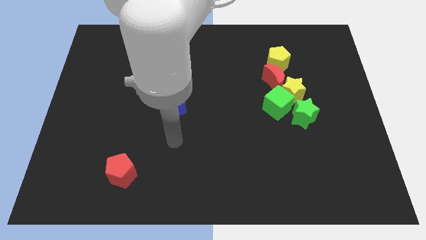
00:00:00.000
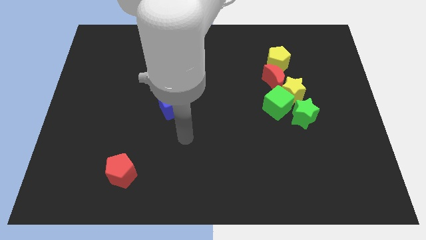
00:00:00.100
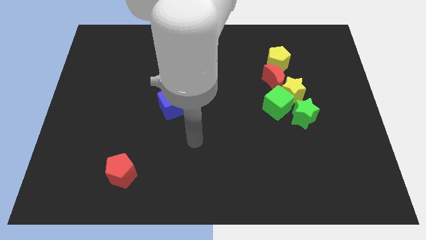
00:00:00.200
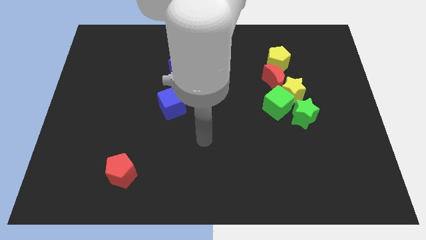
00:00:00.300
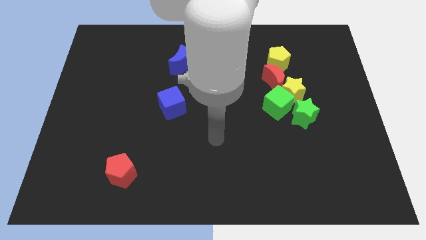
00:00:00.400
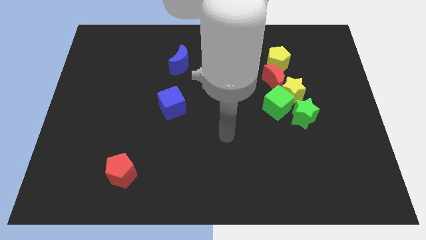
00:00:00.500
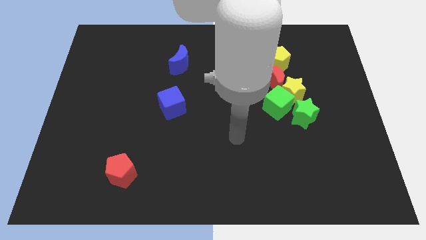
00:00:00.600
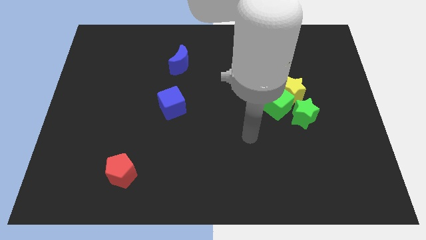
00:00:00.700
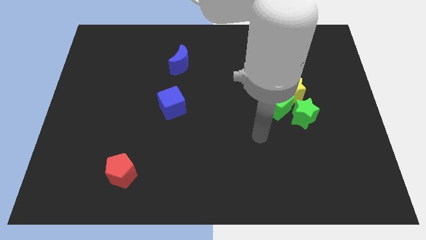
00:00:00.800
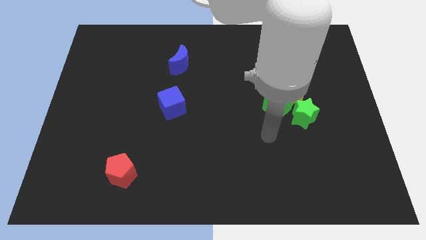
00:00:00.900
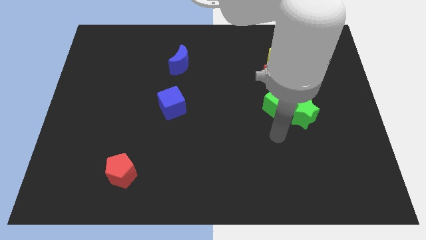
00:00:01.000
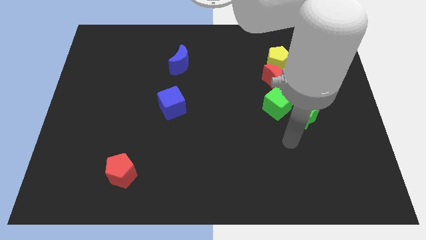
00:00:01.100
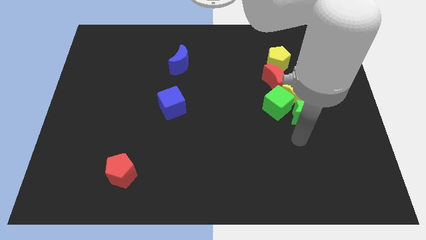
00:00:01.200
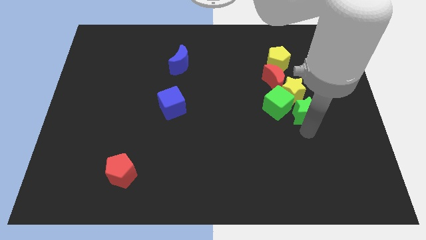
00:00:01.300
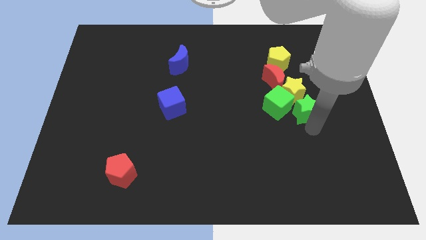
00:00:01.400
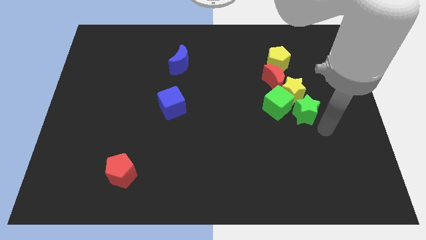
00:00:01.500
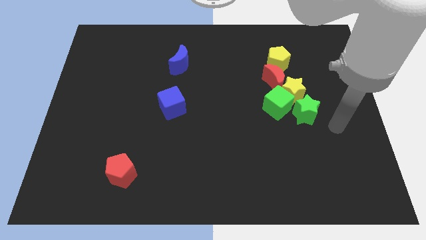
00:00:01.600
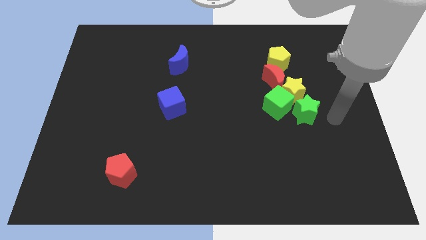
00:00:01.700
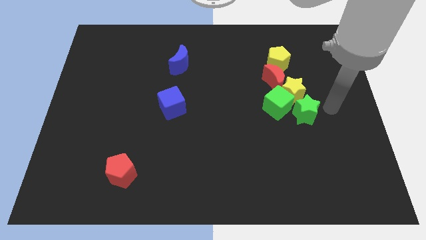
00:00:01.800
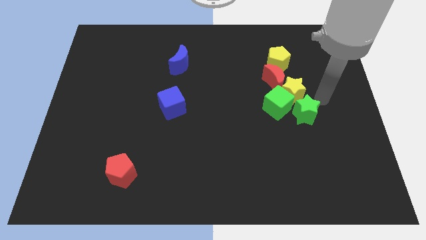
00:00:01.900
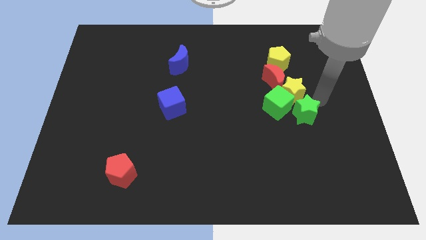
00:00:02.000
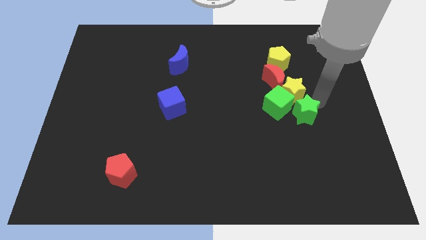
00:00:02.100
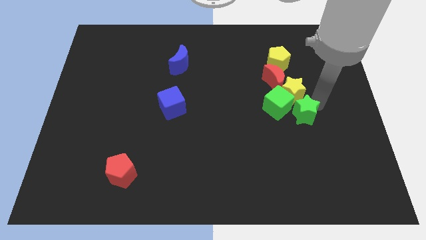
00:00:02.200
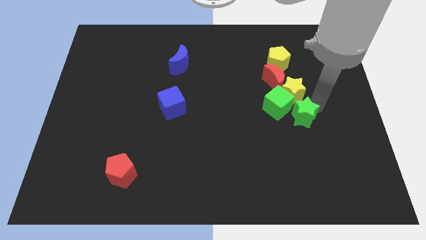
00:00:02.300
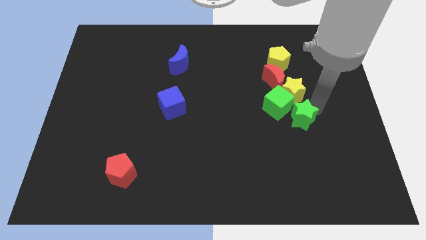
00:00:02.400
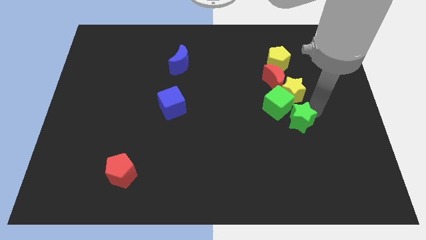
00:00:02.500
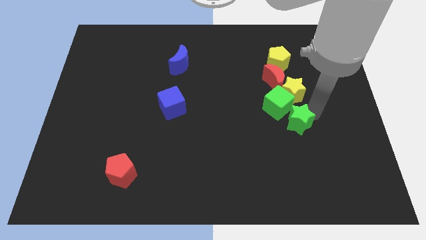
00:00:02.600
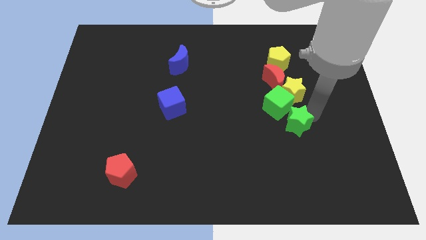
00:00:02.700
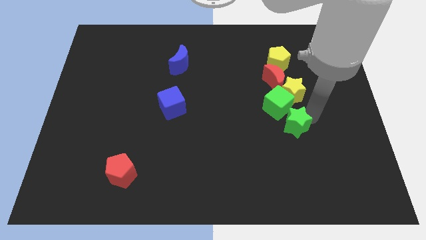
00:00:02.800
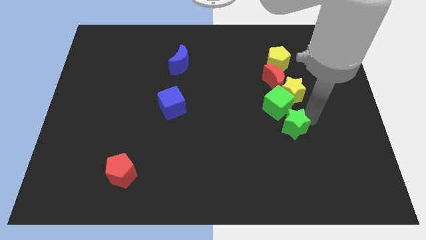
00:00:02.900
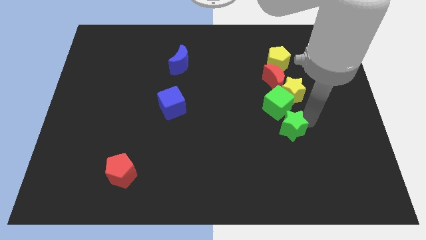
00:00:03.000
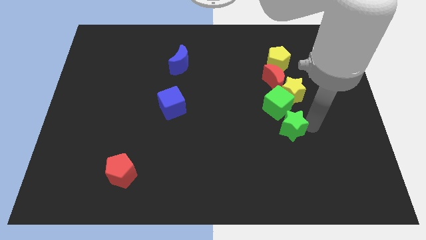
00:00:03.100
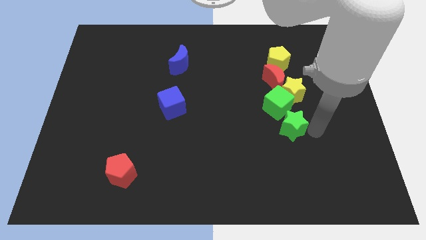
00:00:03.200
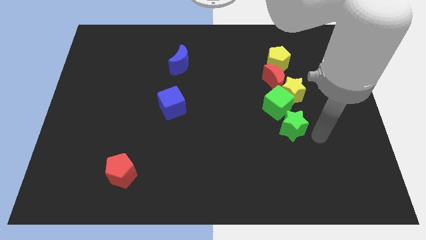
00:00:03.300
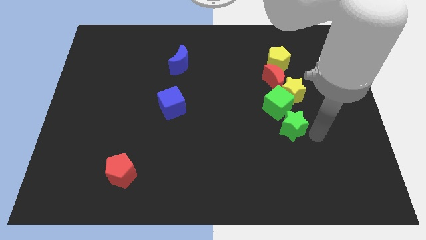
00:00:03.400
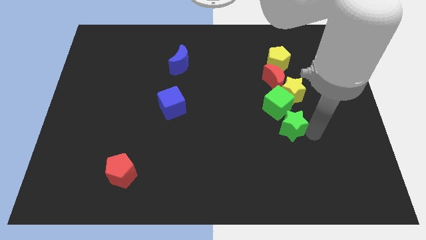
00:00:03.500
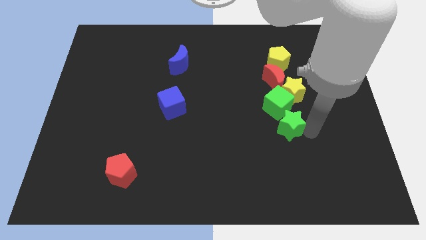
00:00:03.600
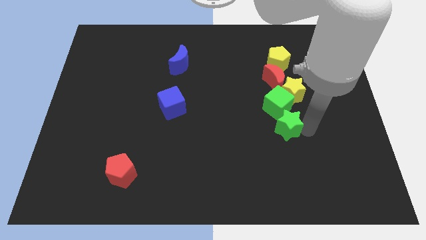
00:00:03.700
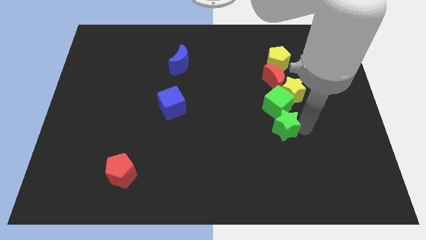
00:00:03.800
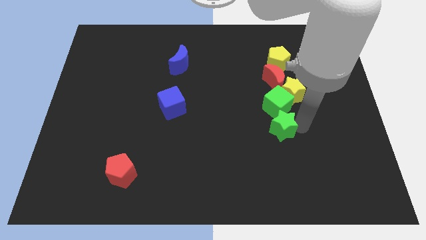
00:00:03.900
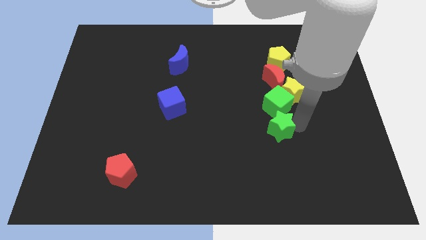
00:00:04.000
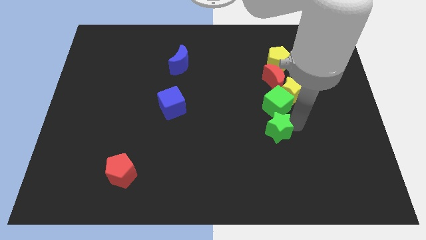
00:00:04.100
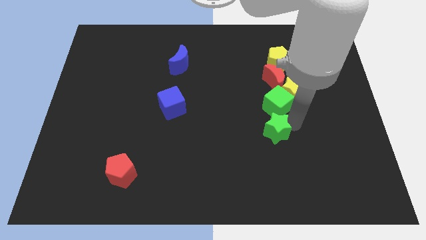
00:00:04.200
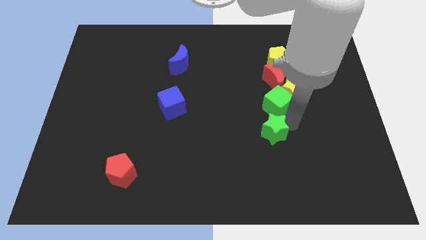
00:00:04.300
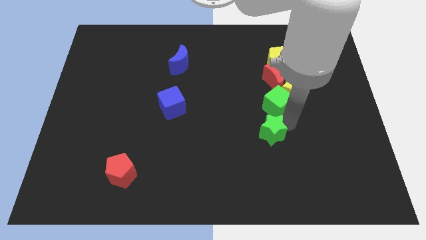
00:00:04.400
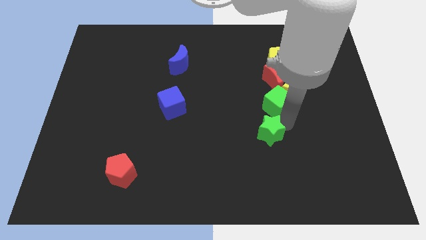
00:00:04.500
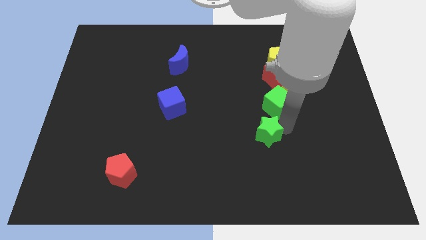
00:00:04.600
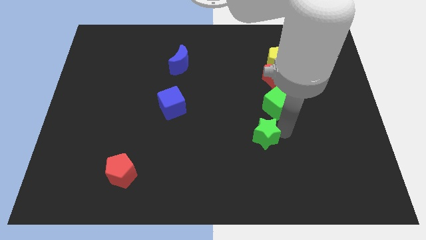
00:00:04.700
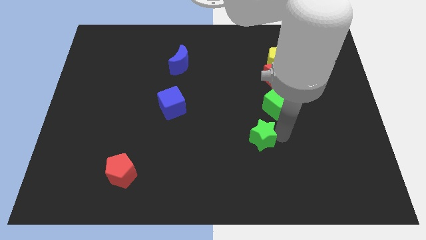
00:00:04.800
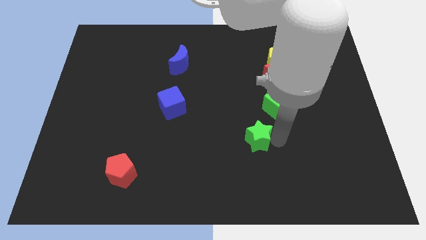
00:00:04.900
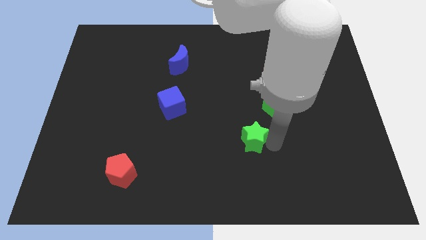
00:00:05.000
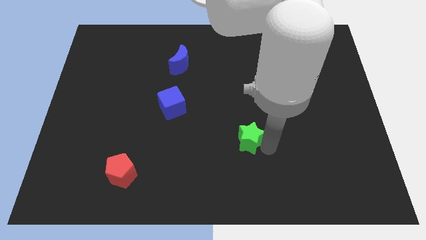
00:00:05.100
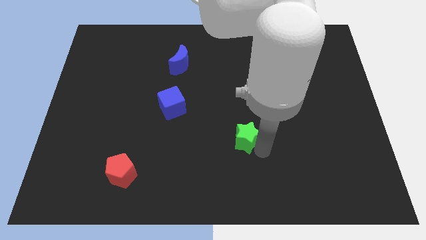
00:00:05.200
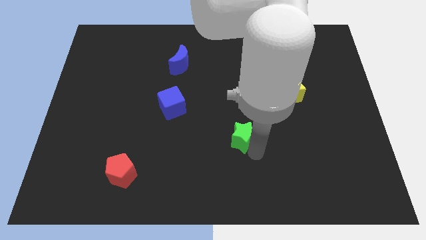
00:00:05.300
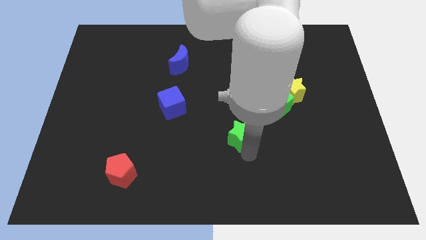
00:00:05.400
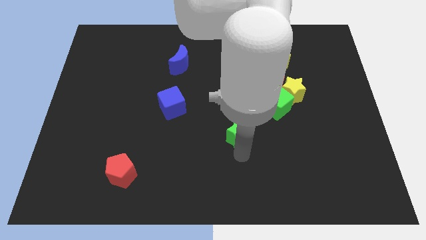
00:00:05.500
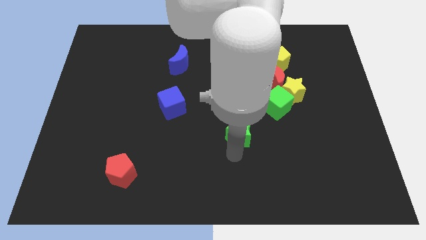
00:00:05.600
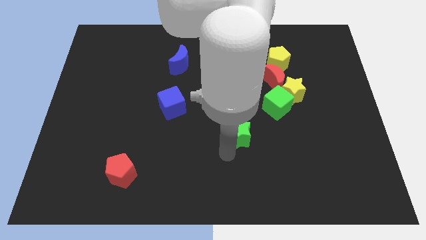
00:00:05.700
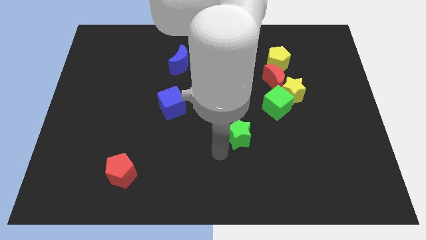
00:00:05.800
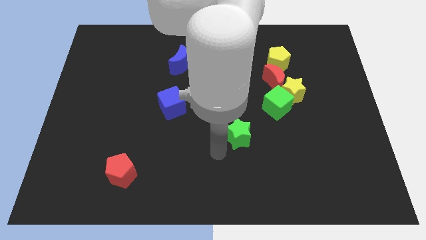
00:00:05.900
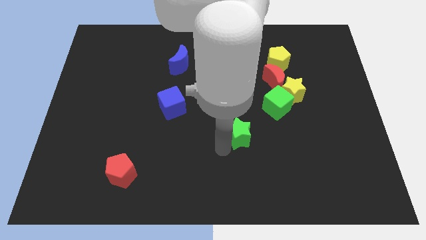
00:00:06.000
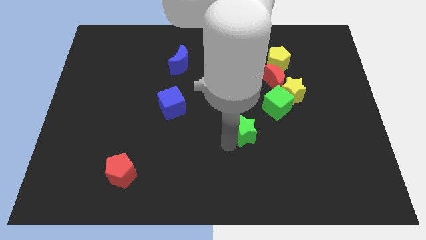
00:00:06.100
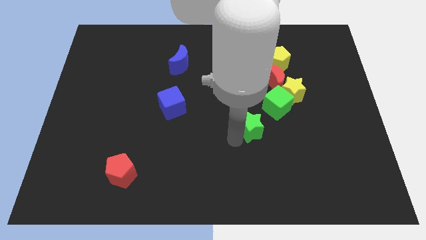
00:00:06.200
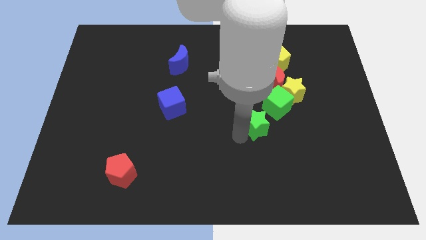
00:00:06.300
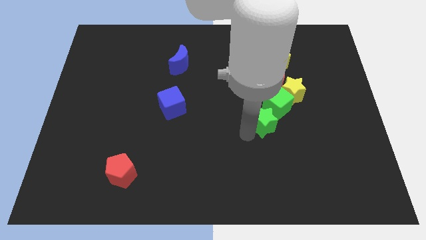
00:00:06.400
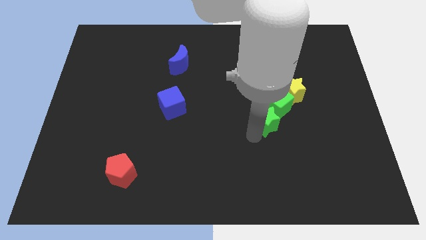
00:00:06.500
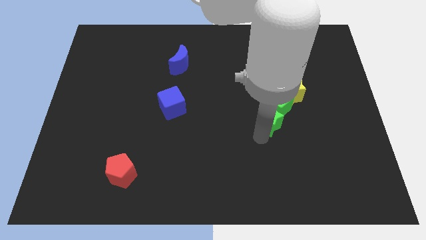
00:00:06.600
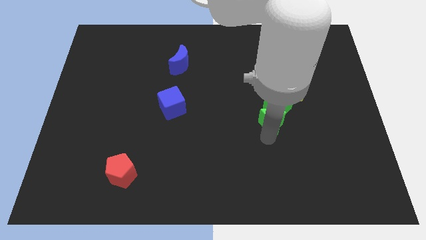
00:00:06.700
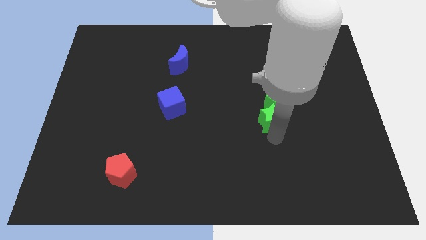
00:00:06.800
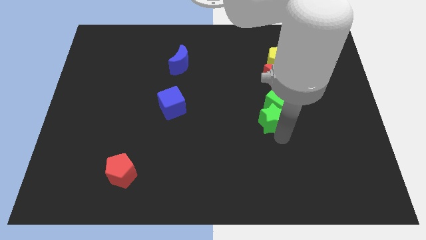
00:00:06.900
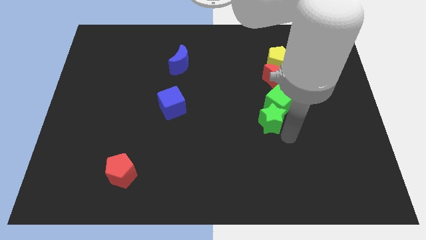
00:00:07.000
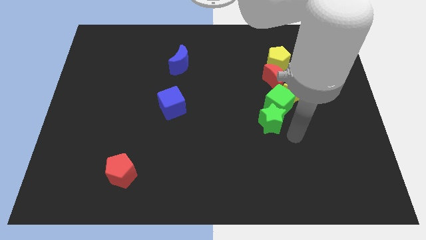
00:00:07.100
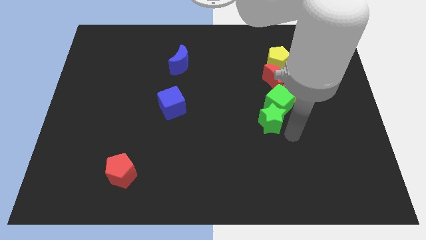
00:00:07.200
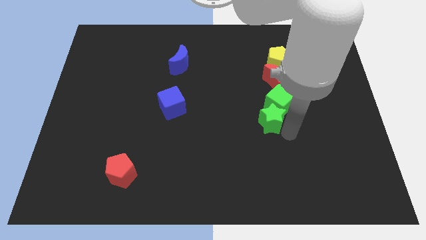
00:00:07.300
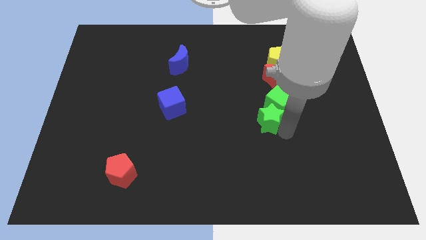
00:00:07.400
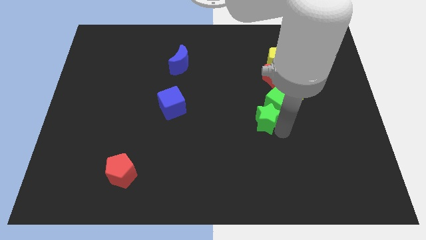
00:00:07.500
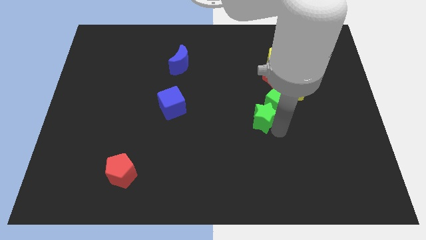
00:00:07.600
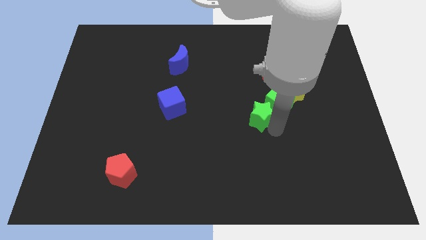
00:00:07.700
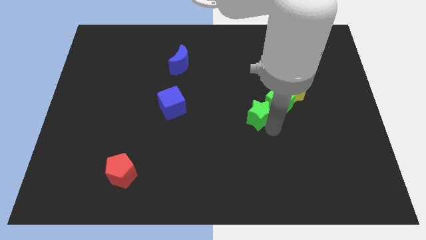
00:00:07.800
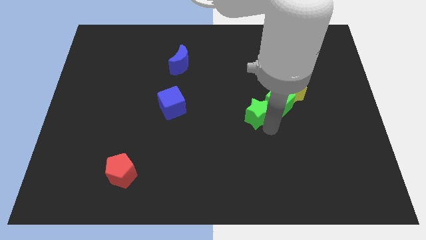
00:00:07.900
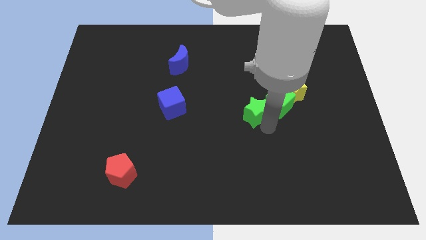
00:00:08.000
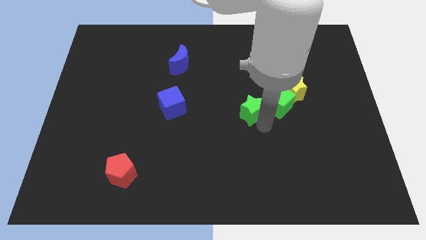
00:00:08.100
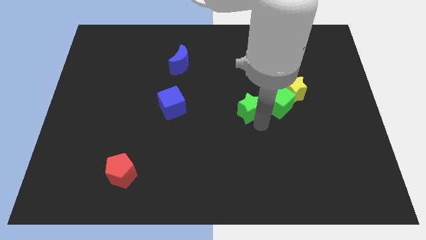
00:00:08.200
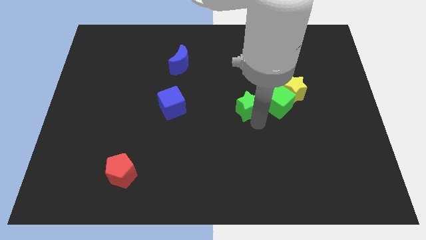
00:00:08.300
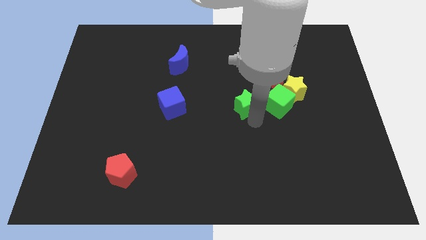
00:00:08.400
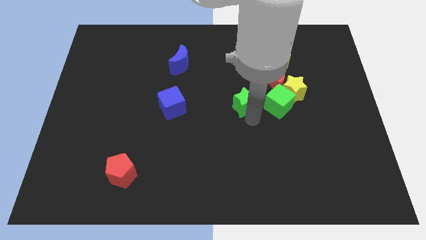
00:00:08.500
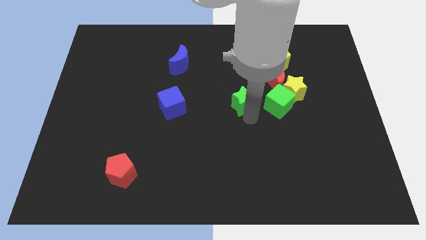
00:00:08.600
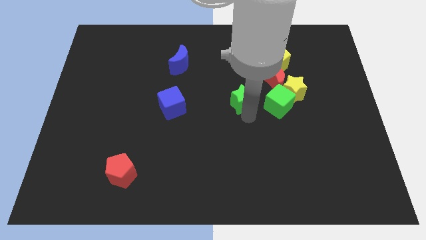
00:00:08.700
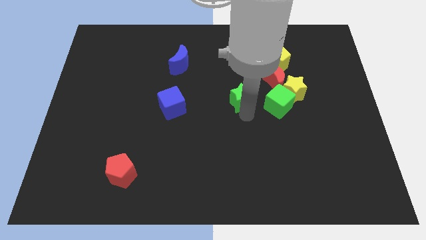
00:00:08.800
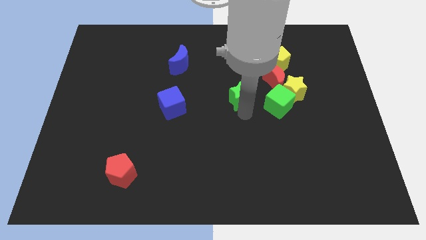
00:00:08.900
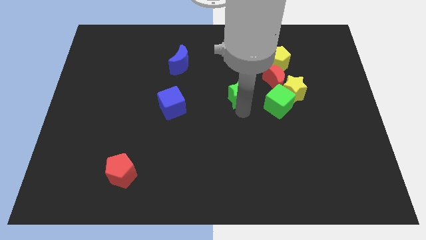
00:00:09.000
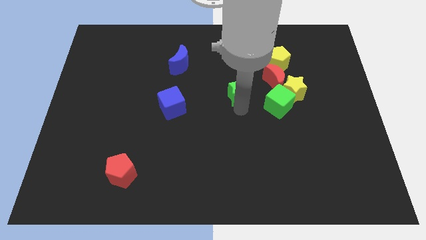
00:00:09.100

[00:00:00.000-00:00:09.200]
move the green star to the left of the red moon
